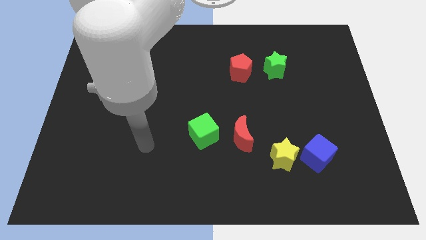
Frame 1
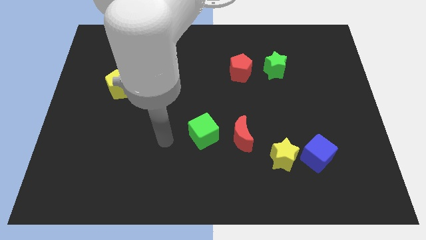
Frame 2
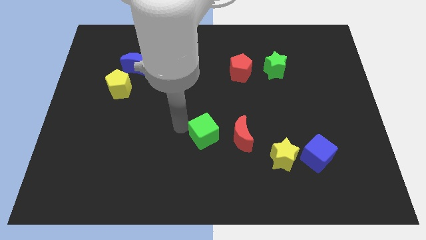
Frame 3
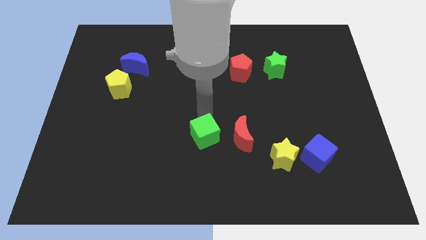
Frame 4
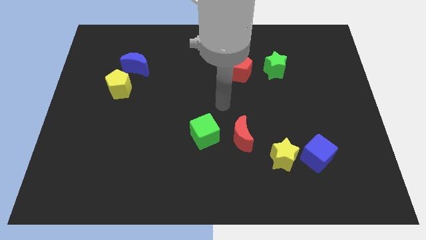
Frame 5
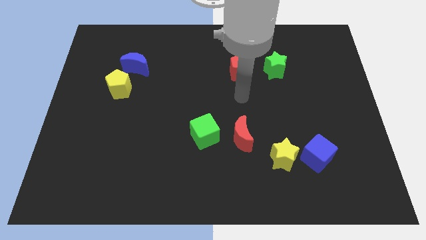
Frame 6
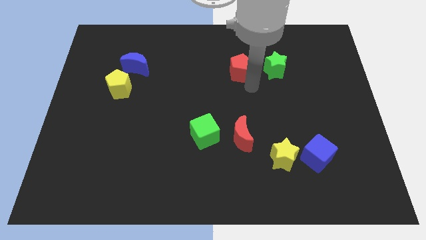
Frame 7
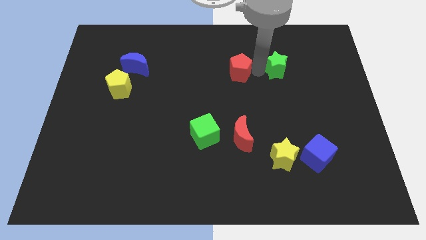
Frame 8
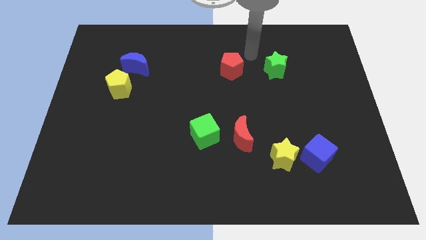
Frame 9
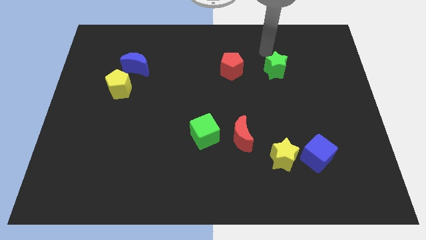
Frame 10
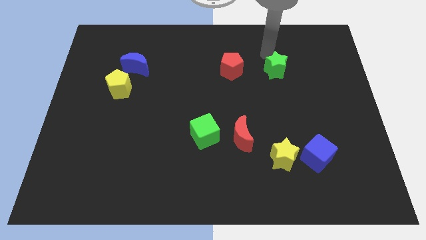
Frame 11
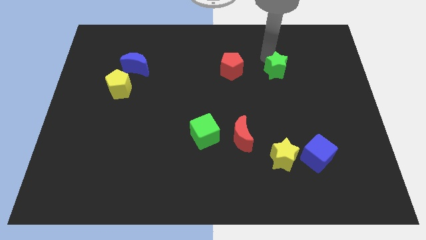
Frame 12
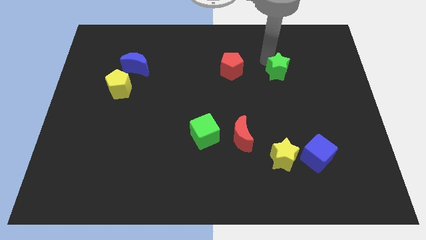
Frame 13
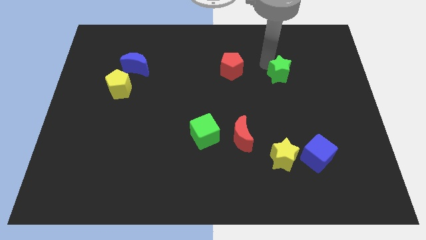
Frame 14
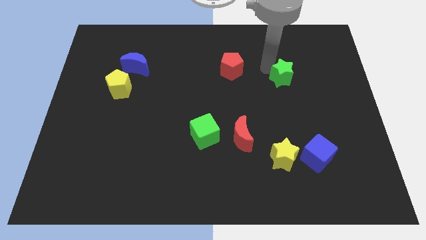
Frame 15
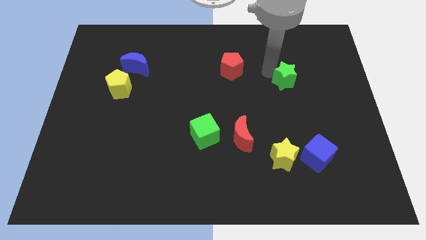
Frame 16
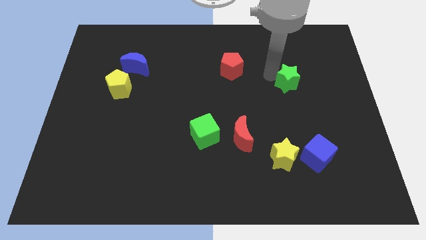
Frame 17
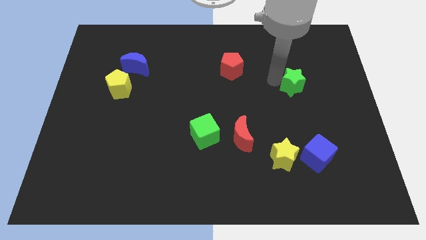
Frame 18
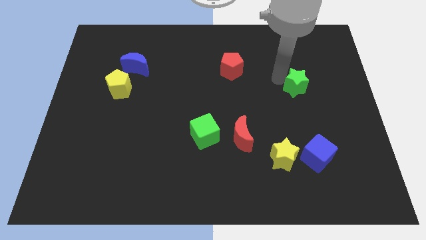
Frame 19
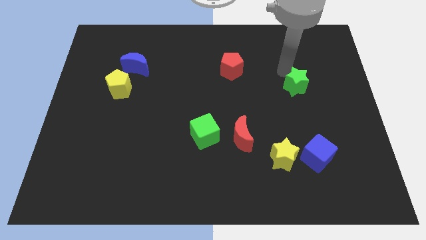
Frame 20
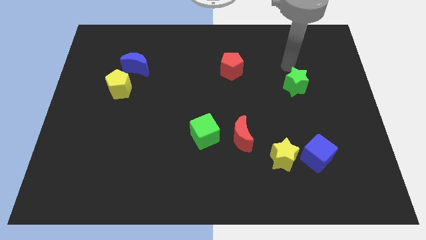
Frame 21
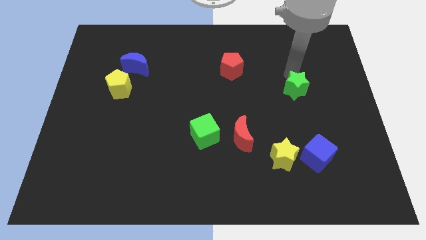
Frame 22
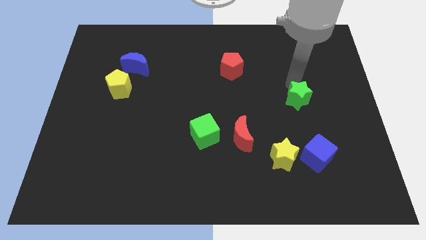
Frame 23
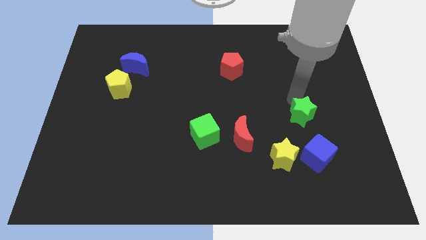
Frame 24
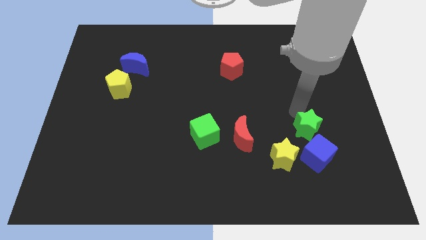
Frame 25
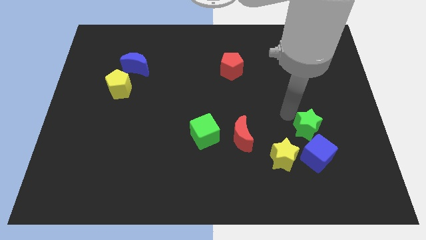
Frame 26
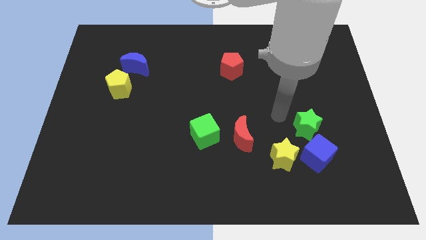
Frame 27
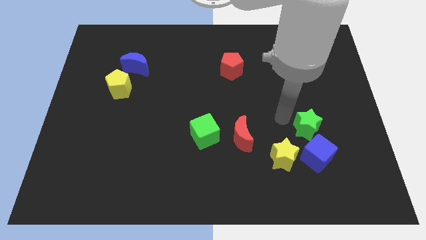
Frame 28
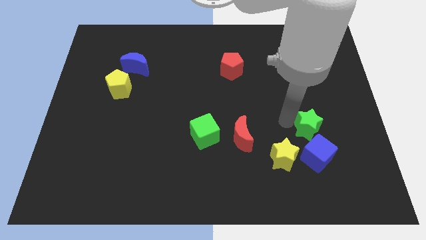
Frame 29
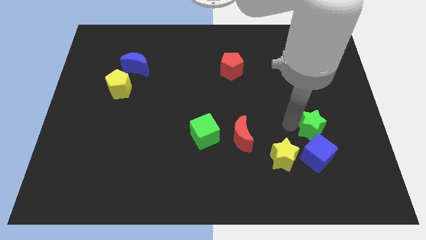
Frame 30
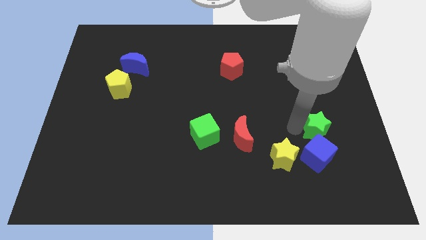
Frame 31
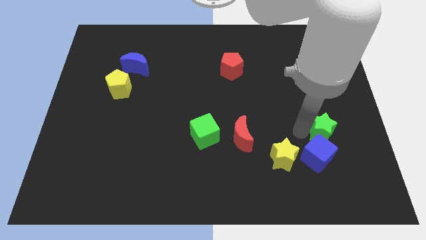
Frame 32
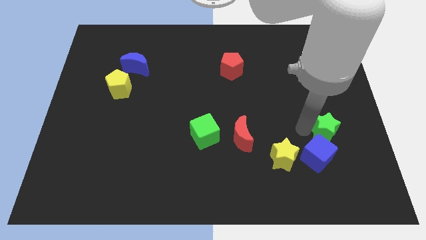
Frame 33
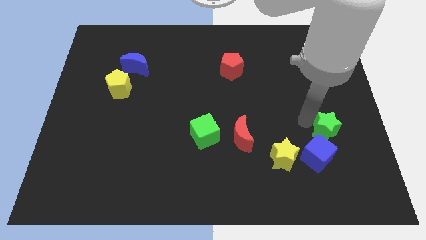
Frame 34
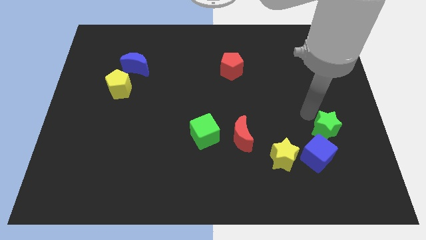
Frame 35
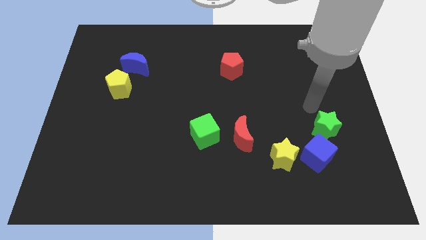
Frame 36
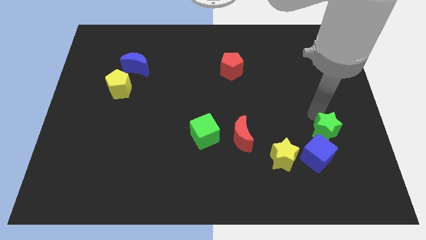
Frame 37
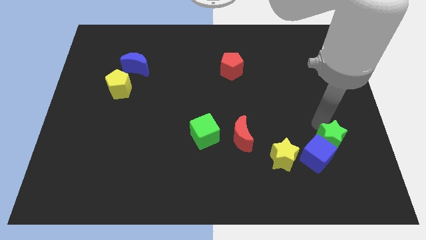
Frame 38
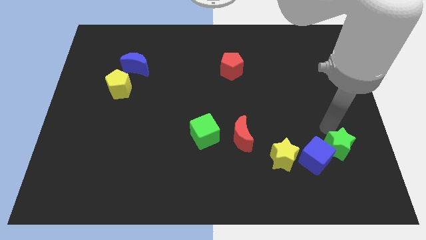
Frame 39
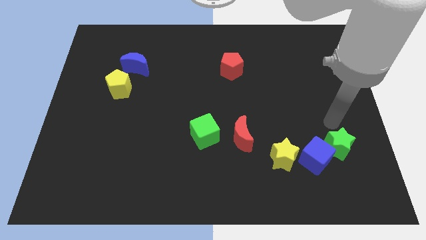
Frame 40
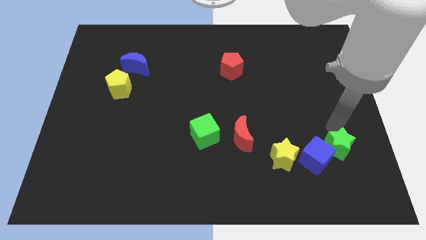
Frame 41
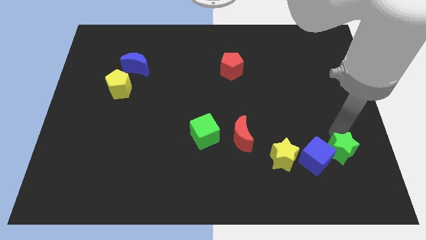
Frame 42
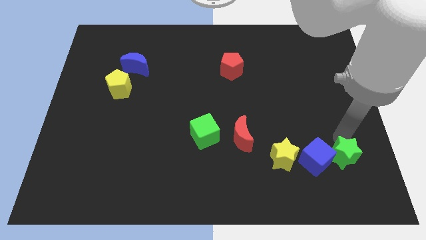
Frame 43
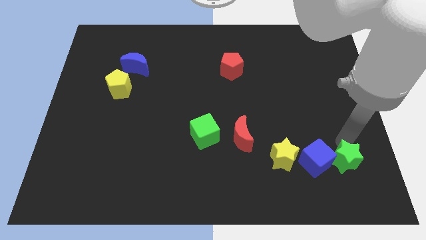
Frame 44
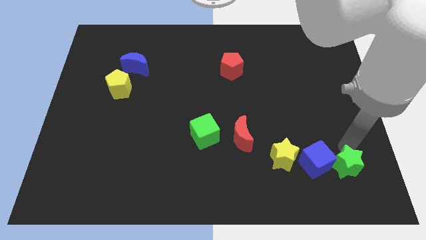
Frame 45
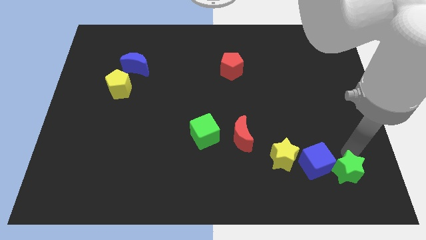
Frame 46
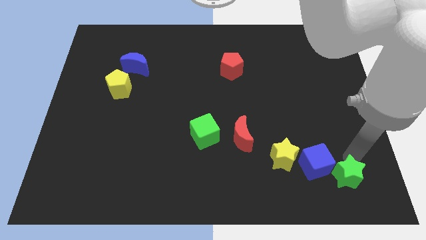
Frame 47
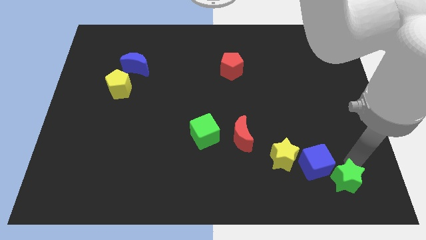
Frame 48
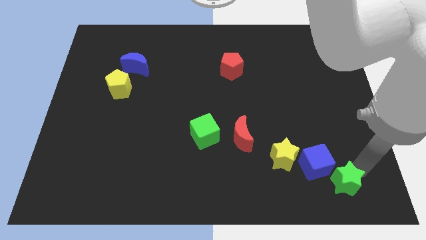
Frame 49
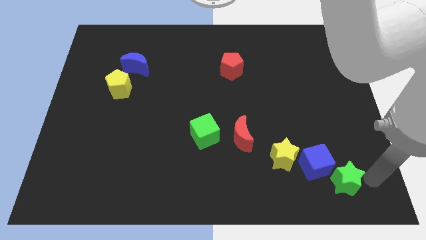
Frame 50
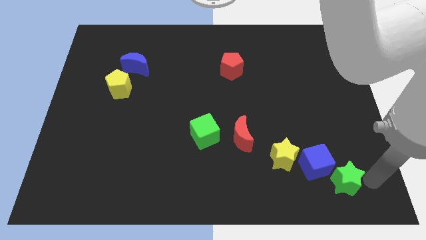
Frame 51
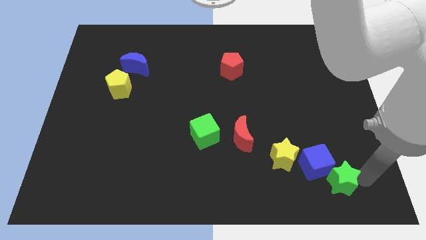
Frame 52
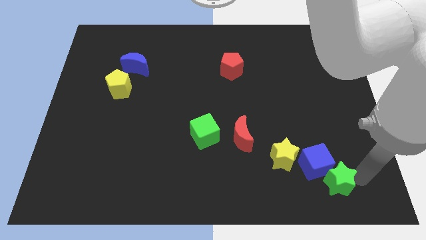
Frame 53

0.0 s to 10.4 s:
move the green star to the bottom right side of the yellow star

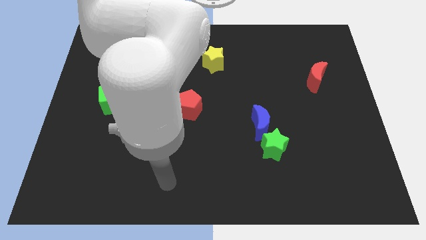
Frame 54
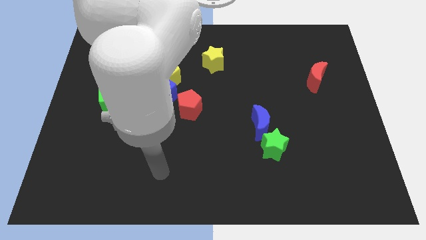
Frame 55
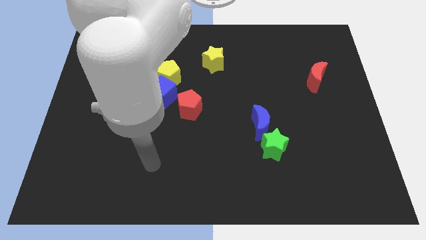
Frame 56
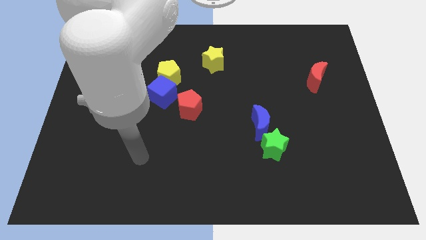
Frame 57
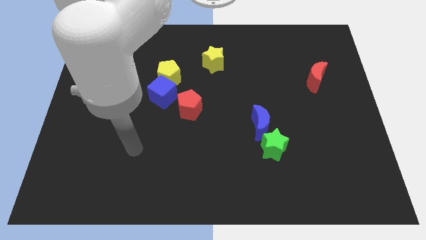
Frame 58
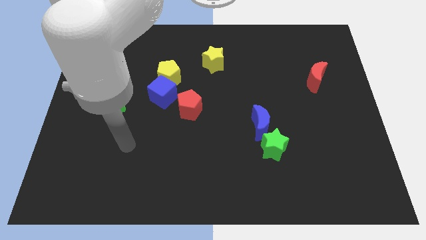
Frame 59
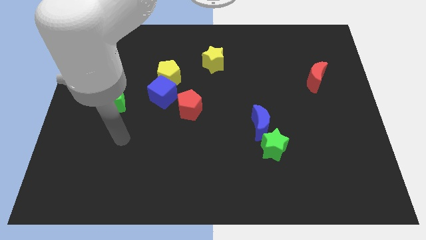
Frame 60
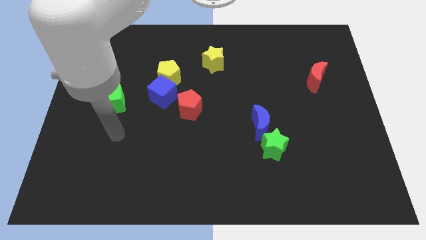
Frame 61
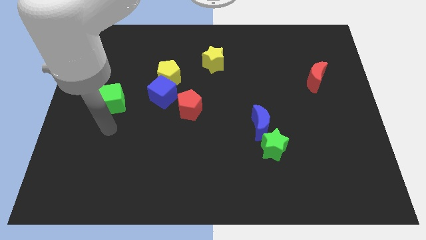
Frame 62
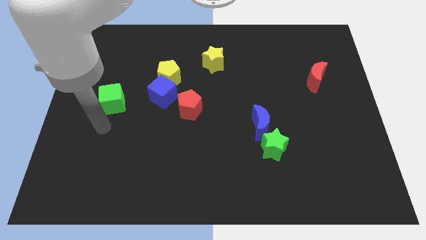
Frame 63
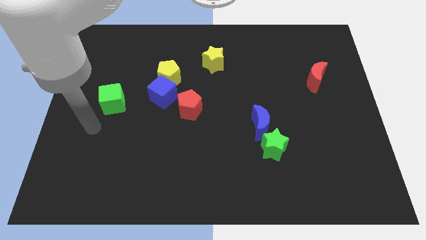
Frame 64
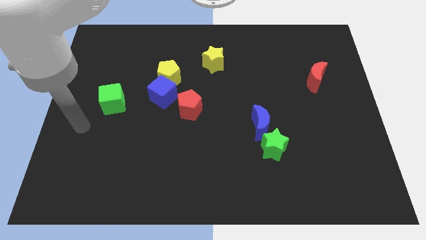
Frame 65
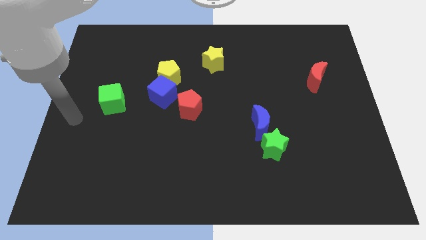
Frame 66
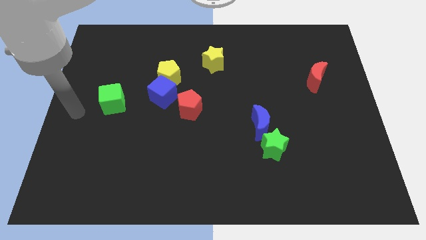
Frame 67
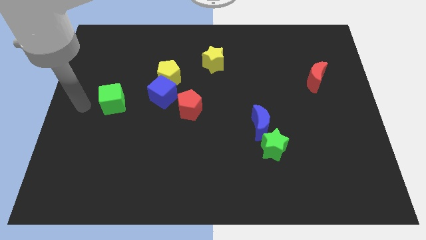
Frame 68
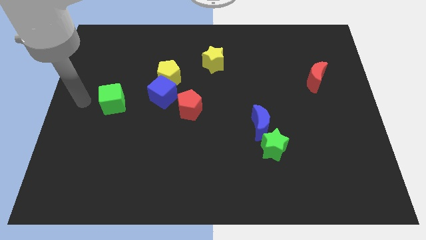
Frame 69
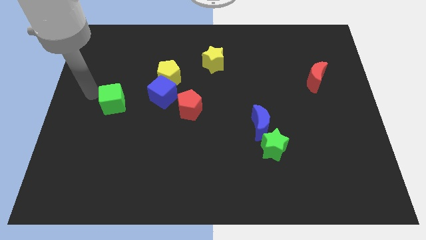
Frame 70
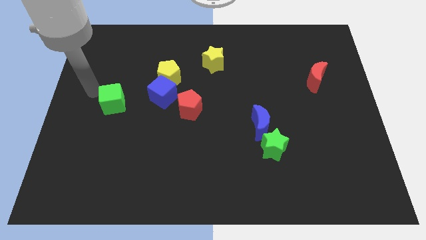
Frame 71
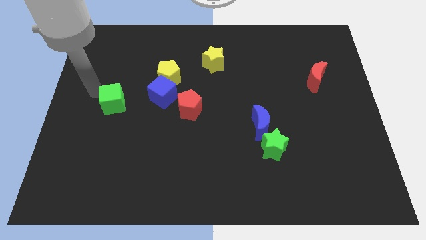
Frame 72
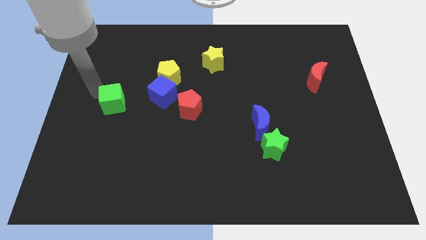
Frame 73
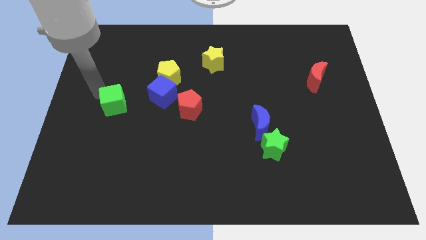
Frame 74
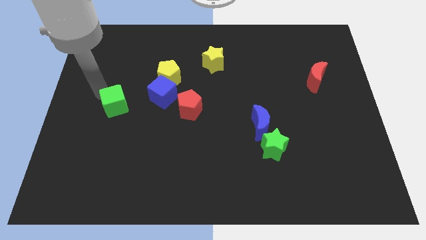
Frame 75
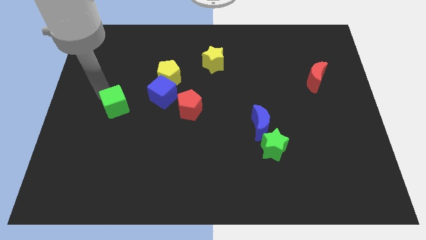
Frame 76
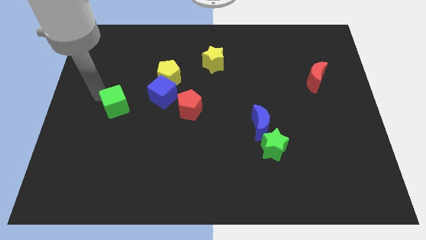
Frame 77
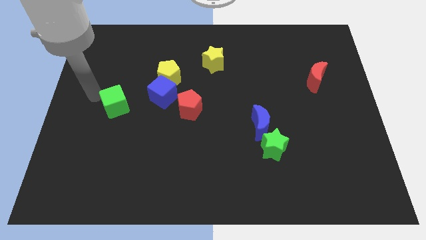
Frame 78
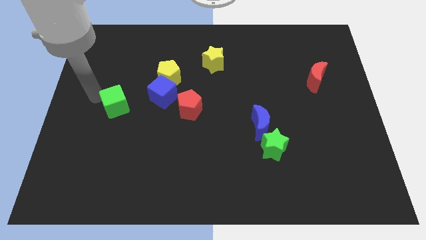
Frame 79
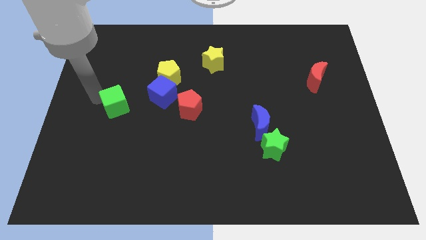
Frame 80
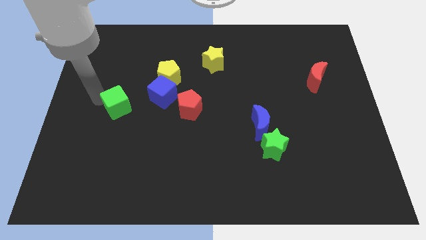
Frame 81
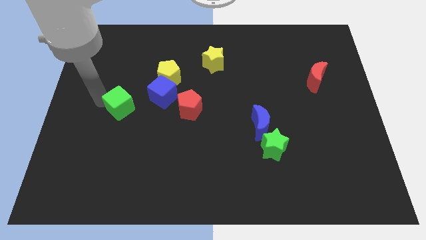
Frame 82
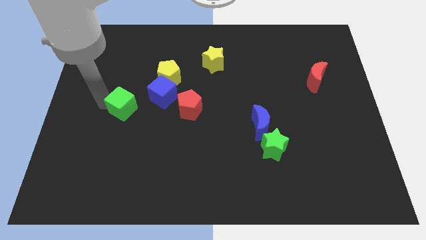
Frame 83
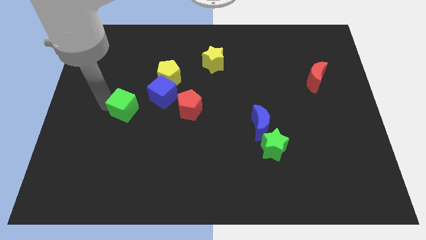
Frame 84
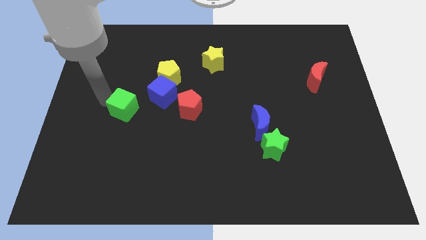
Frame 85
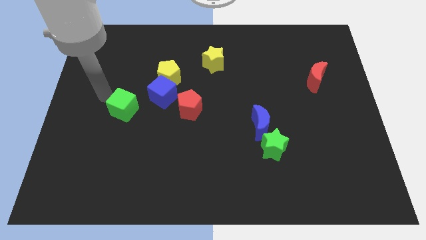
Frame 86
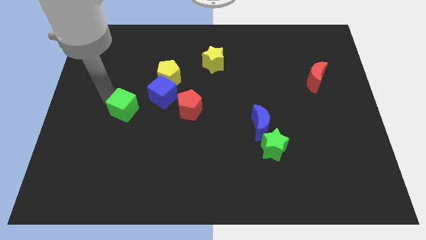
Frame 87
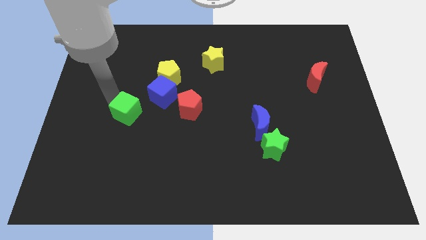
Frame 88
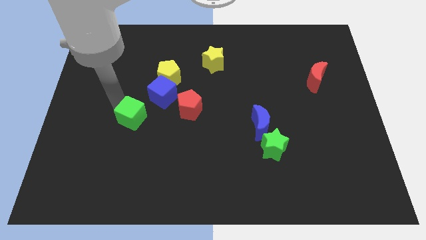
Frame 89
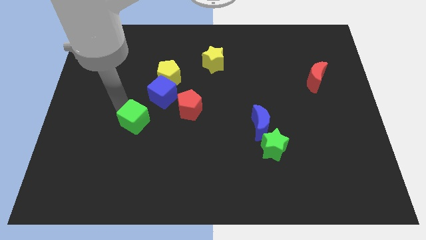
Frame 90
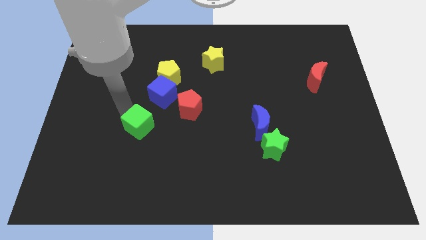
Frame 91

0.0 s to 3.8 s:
push the green cube to the bottom side of the blue cube
